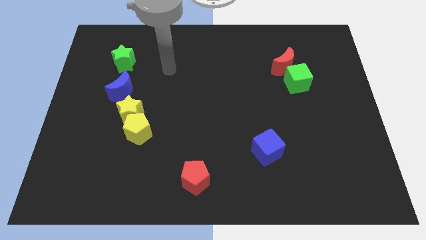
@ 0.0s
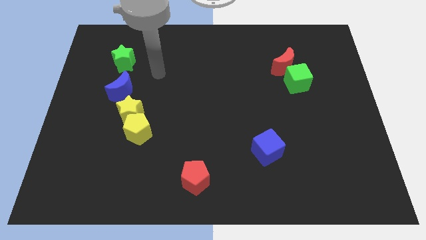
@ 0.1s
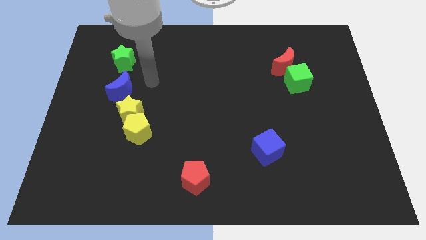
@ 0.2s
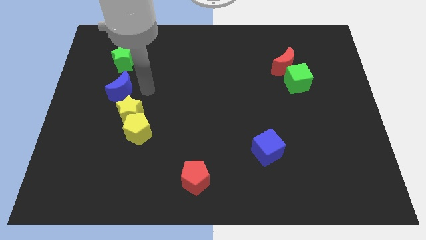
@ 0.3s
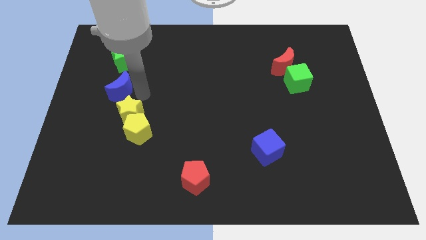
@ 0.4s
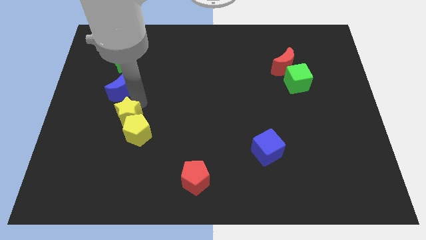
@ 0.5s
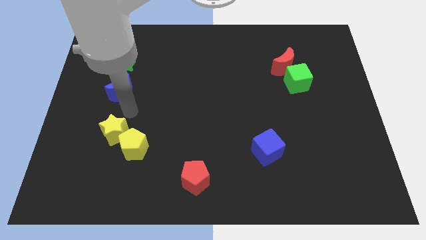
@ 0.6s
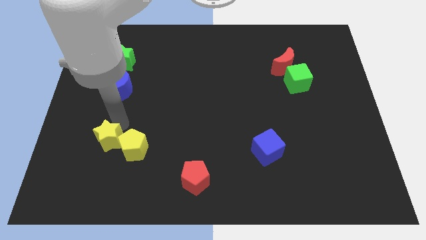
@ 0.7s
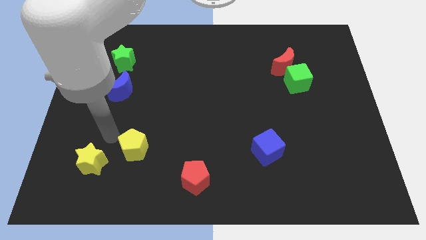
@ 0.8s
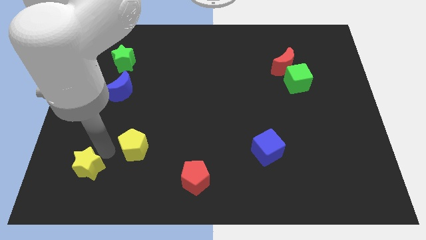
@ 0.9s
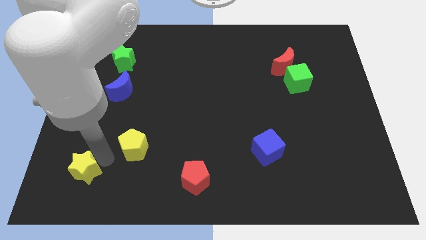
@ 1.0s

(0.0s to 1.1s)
separate the yellow pentagon from the yellow star

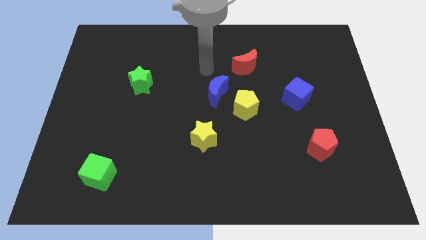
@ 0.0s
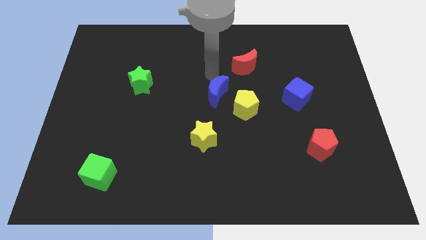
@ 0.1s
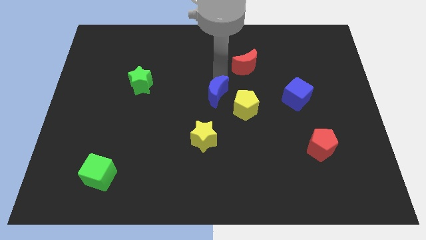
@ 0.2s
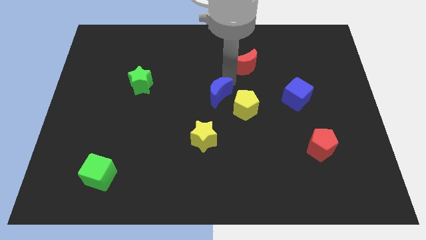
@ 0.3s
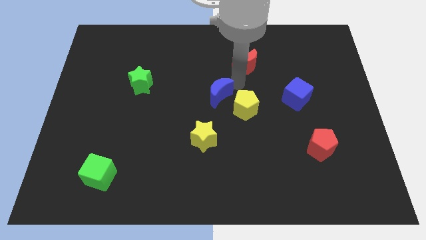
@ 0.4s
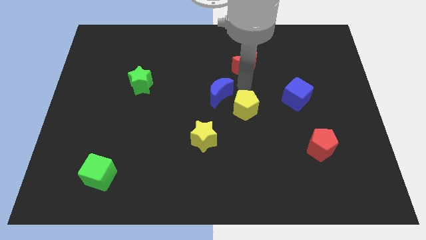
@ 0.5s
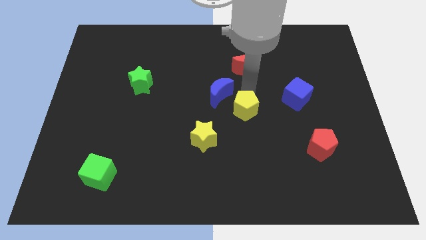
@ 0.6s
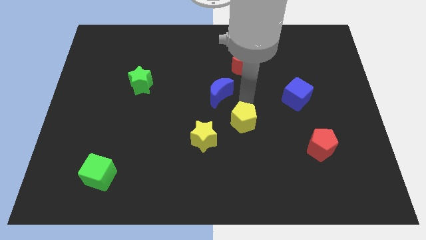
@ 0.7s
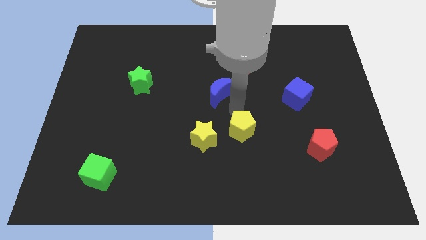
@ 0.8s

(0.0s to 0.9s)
separate the blue moon from the yellow pentagon

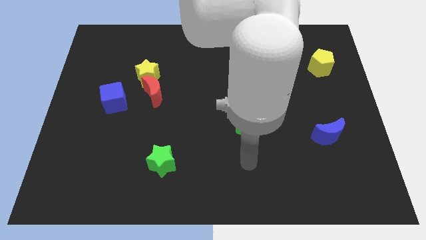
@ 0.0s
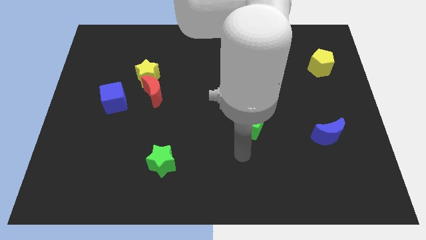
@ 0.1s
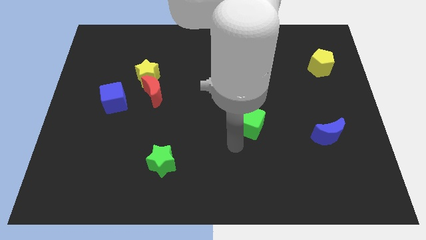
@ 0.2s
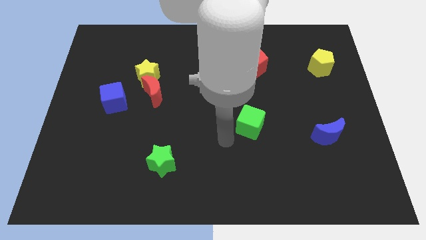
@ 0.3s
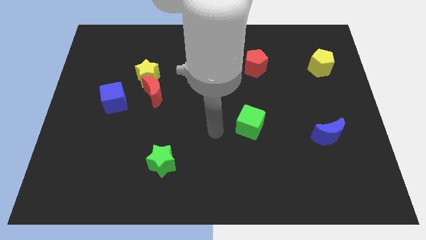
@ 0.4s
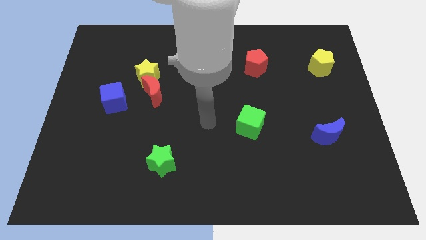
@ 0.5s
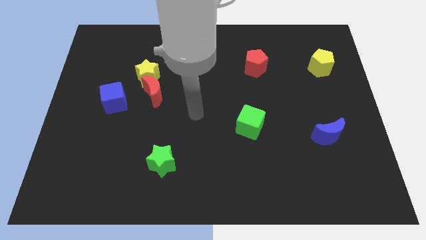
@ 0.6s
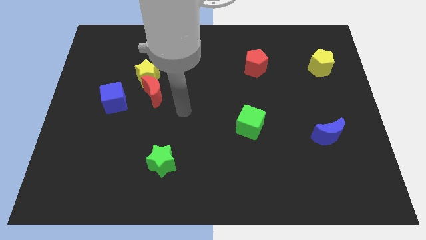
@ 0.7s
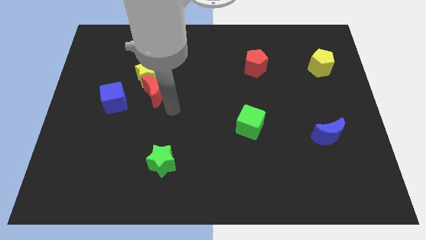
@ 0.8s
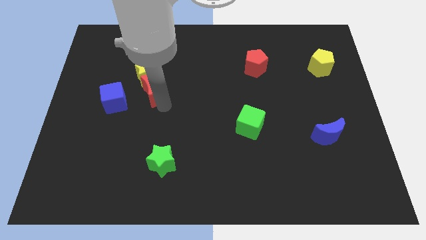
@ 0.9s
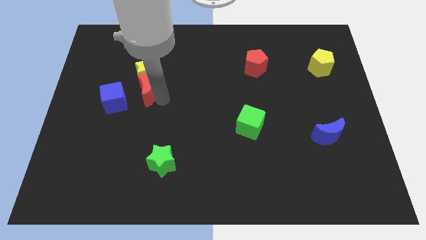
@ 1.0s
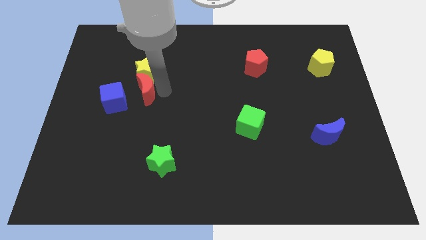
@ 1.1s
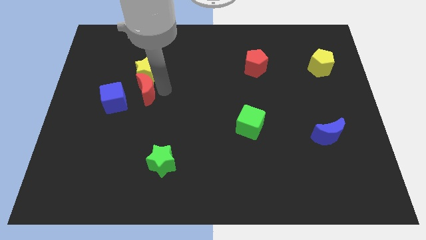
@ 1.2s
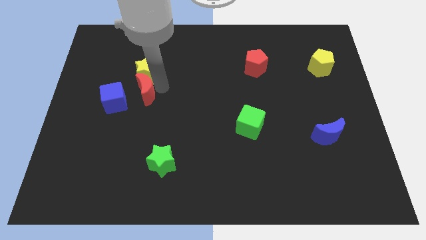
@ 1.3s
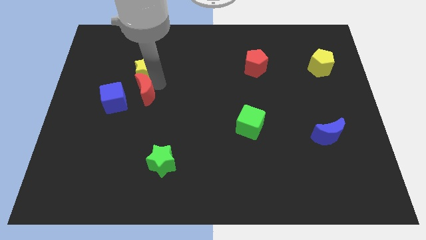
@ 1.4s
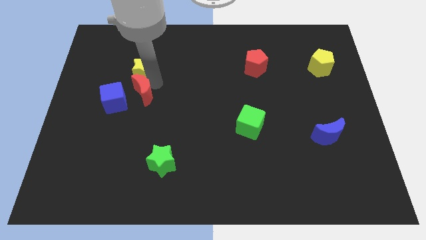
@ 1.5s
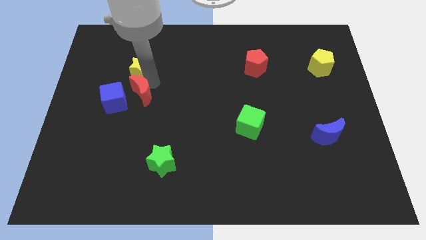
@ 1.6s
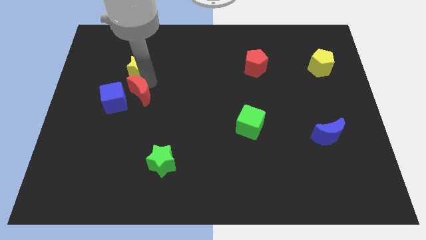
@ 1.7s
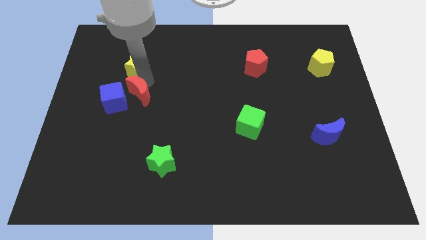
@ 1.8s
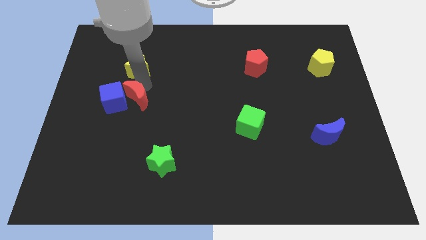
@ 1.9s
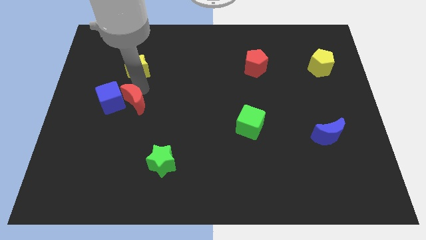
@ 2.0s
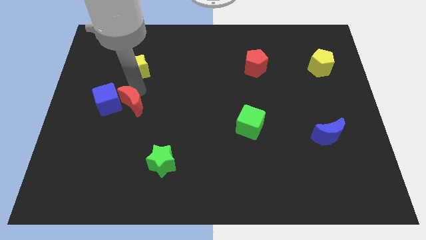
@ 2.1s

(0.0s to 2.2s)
move the yellow star away from the red moon

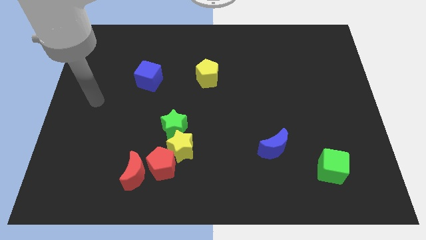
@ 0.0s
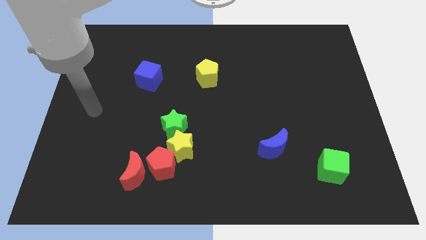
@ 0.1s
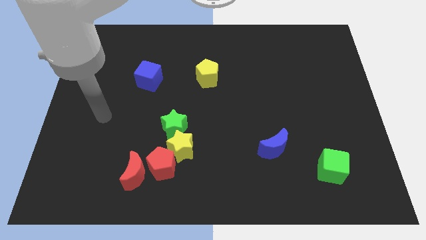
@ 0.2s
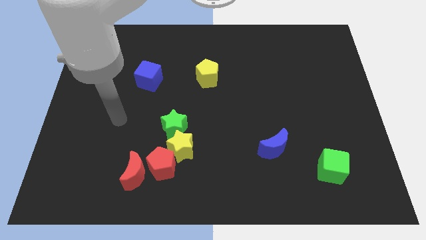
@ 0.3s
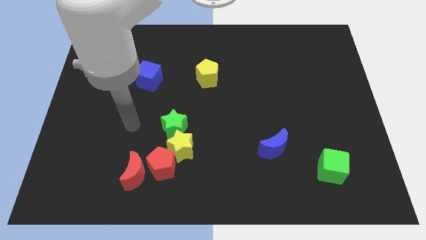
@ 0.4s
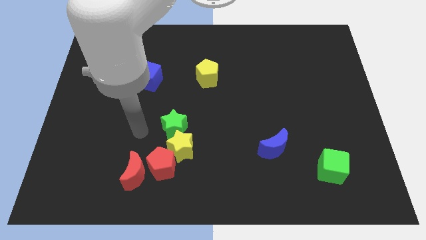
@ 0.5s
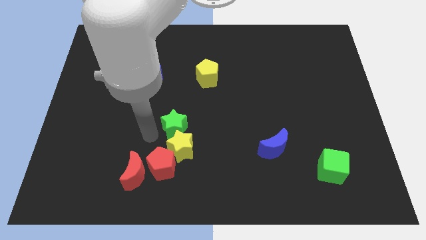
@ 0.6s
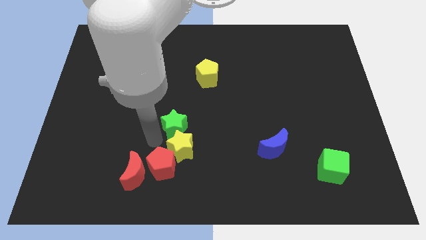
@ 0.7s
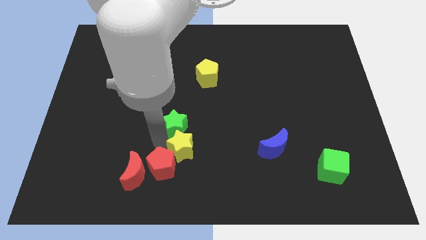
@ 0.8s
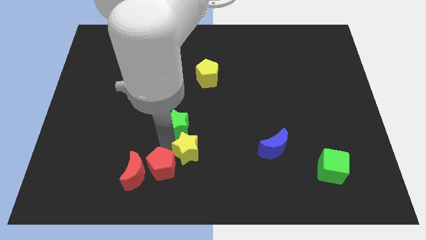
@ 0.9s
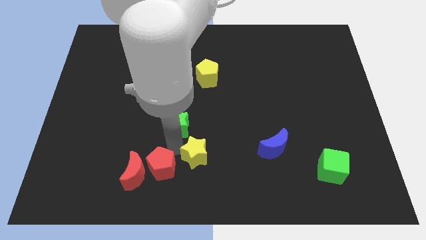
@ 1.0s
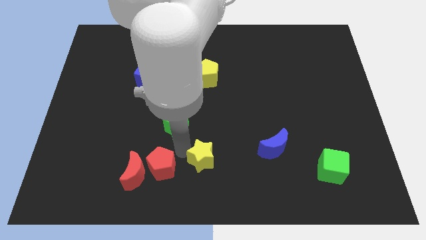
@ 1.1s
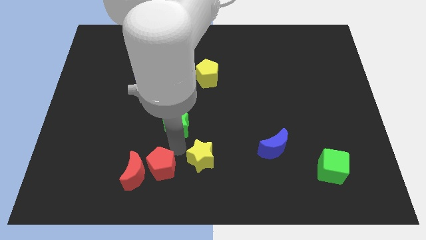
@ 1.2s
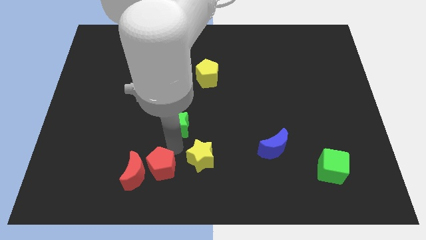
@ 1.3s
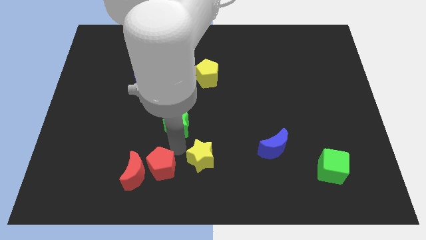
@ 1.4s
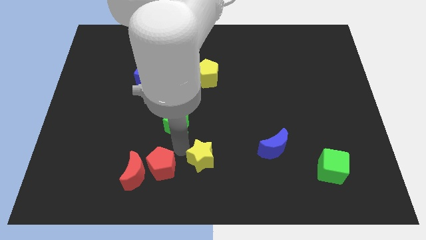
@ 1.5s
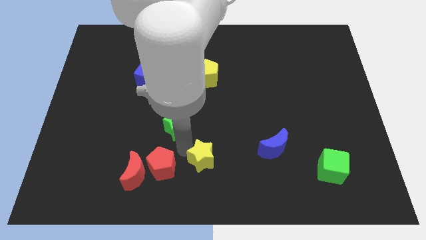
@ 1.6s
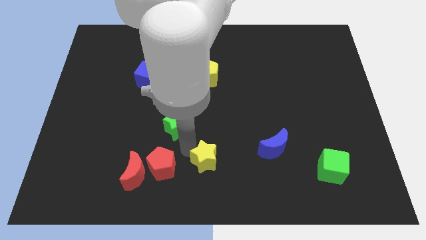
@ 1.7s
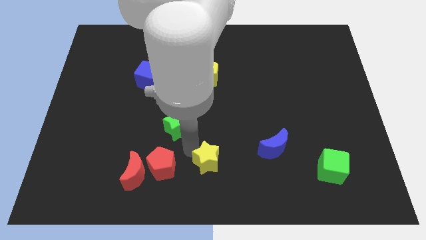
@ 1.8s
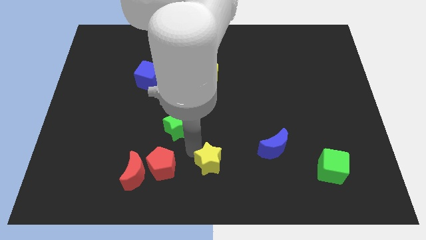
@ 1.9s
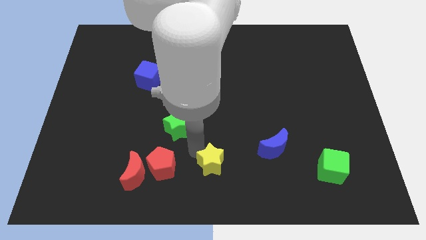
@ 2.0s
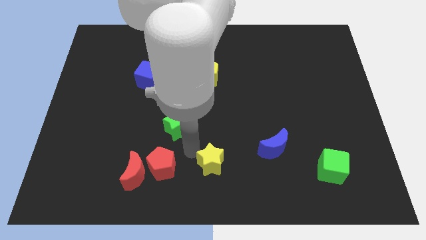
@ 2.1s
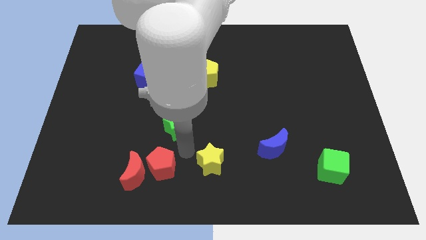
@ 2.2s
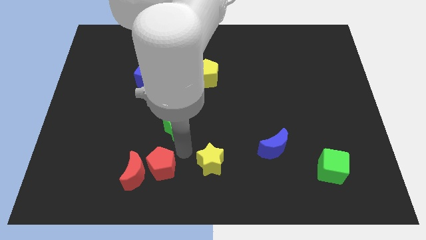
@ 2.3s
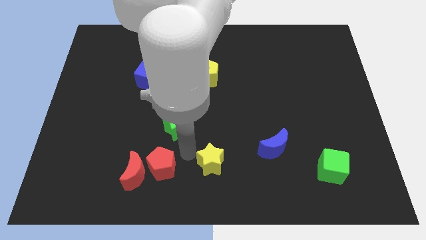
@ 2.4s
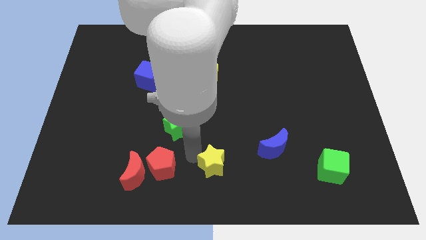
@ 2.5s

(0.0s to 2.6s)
separate the yellow star from the red pentagon and green star

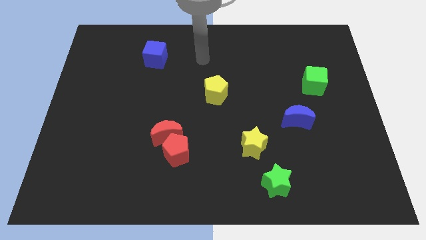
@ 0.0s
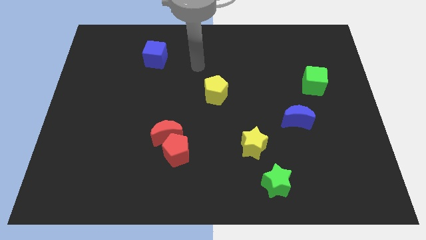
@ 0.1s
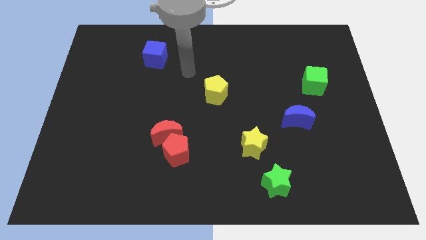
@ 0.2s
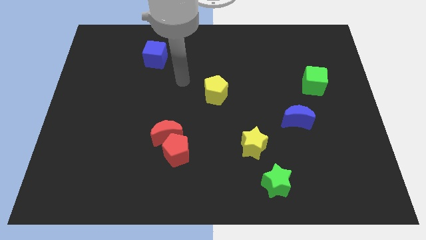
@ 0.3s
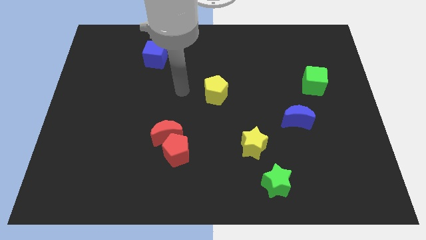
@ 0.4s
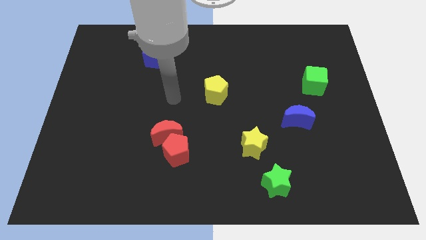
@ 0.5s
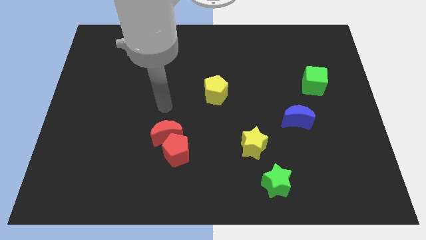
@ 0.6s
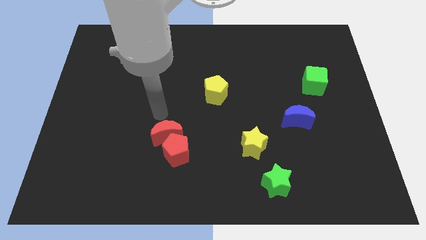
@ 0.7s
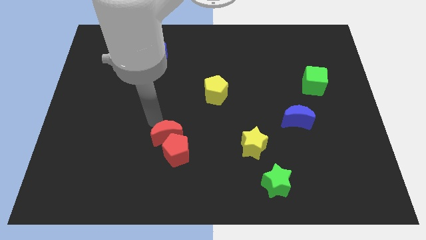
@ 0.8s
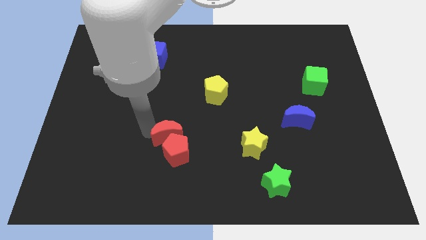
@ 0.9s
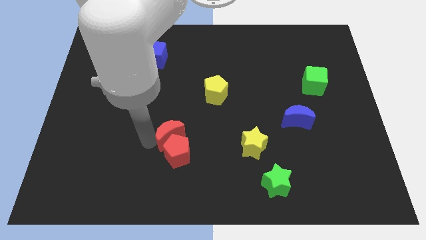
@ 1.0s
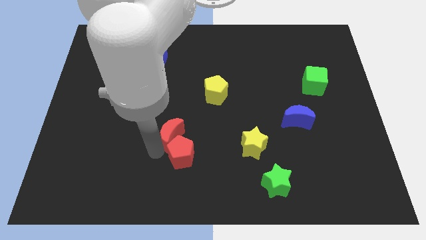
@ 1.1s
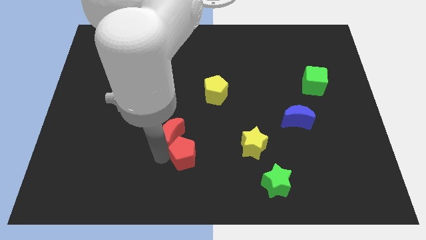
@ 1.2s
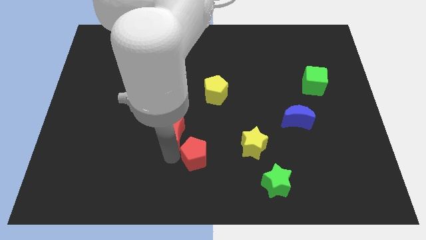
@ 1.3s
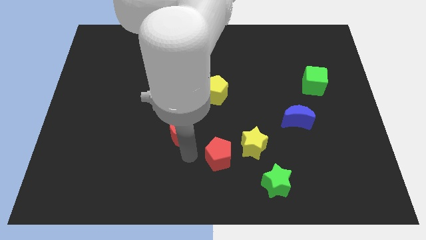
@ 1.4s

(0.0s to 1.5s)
move the red moon away from the red pentagon

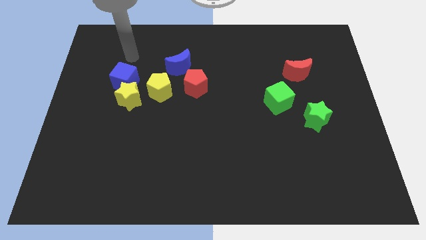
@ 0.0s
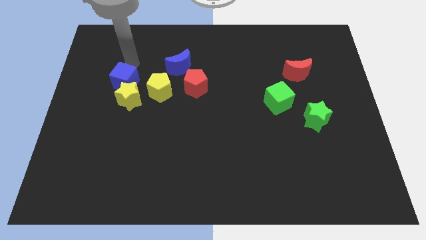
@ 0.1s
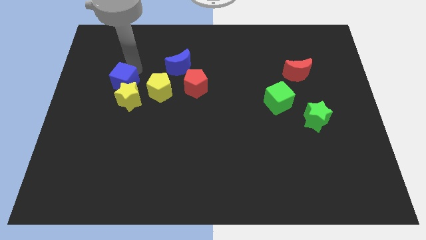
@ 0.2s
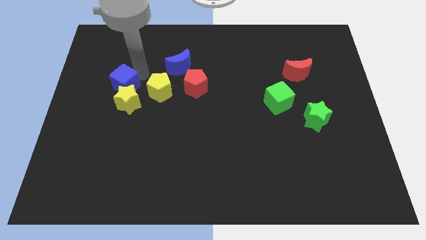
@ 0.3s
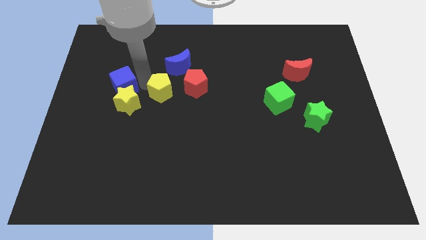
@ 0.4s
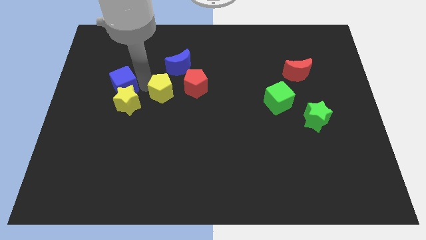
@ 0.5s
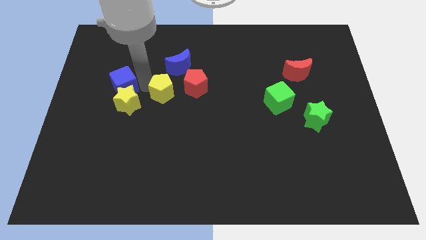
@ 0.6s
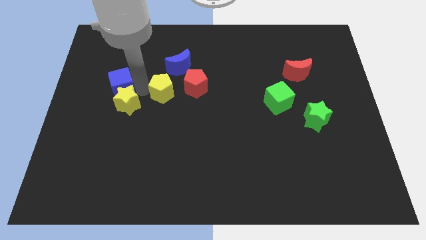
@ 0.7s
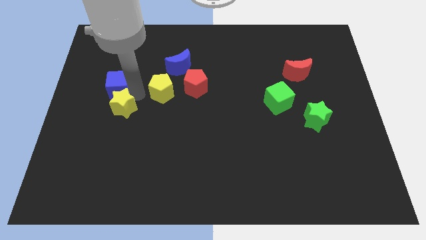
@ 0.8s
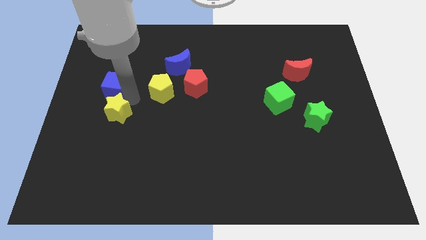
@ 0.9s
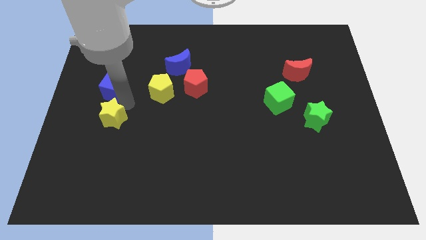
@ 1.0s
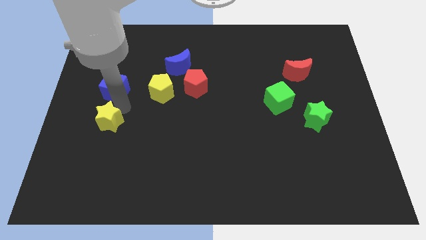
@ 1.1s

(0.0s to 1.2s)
pull the yellow star apart from the blue cube and yellow pentagon
